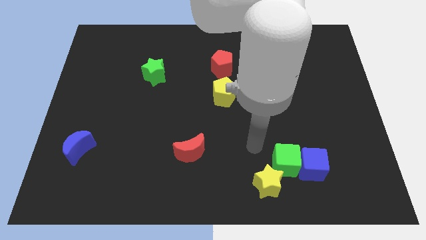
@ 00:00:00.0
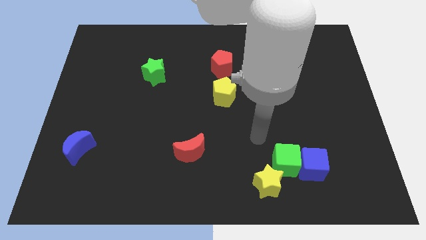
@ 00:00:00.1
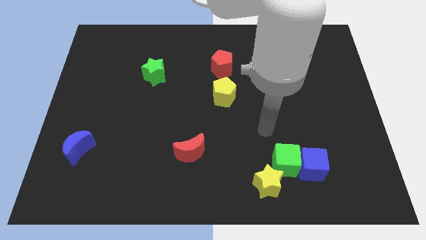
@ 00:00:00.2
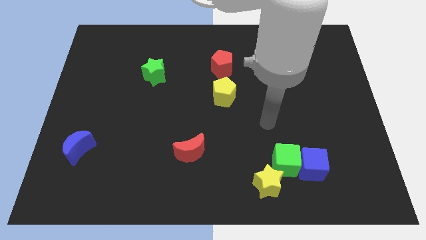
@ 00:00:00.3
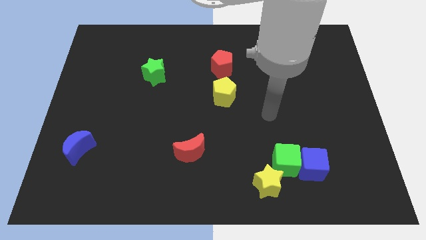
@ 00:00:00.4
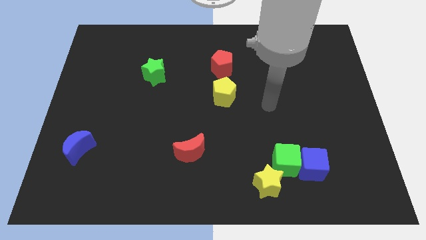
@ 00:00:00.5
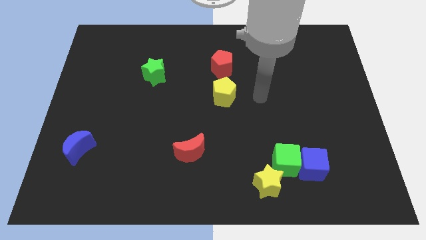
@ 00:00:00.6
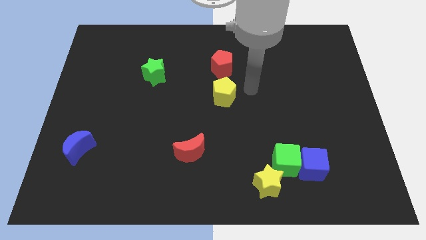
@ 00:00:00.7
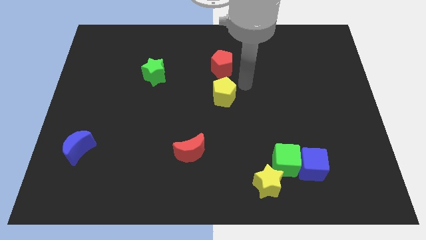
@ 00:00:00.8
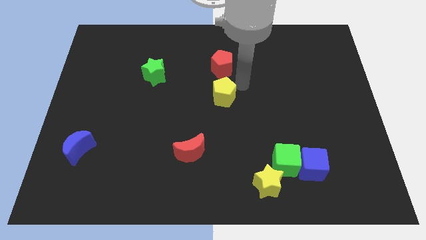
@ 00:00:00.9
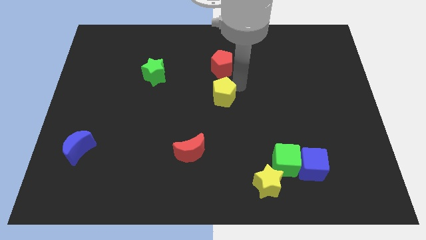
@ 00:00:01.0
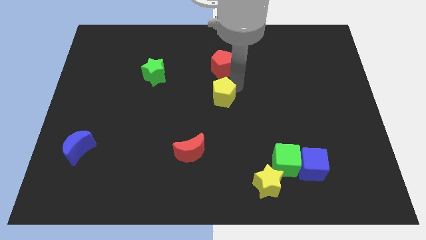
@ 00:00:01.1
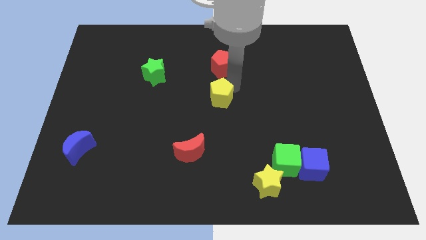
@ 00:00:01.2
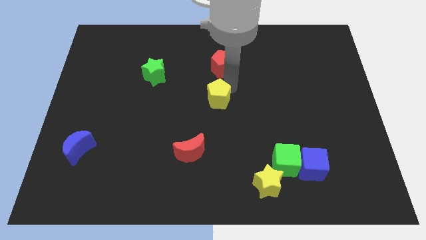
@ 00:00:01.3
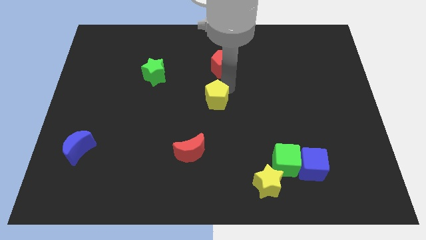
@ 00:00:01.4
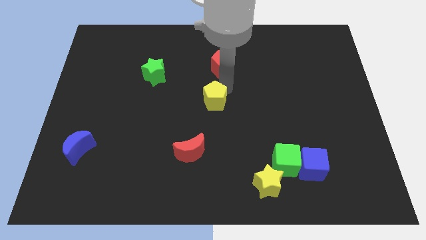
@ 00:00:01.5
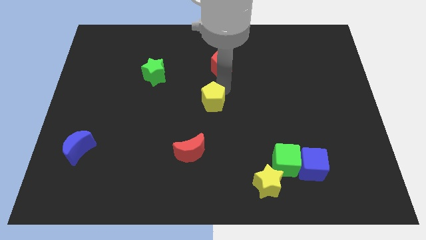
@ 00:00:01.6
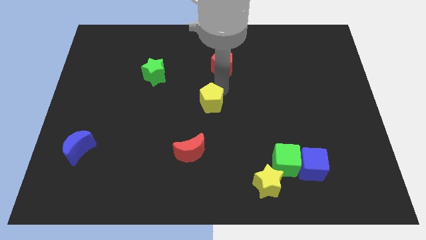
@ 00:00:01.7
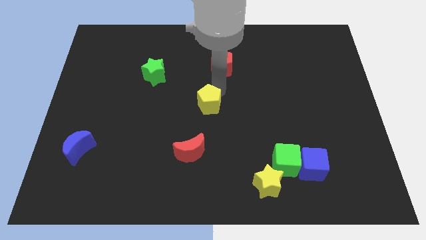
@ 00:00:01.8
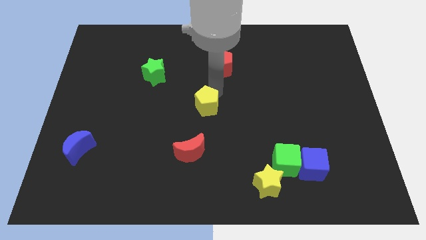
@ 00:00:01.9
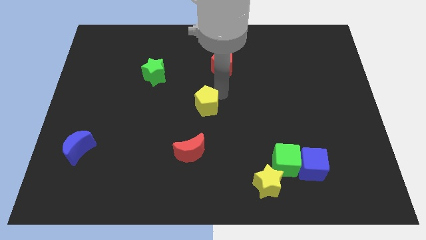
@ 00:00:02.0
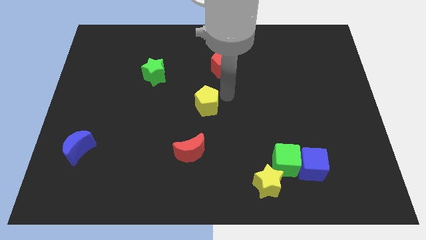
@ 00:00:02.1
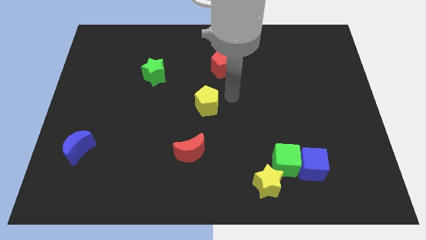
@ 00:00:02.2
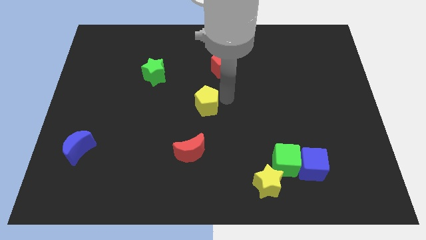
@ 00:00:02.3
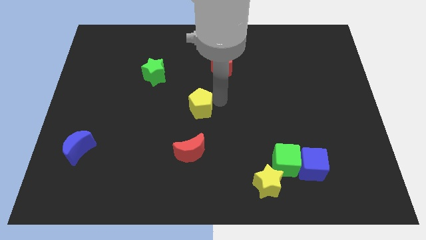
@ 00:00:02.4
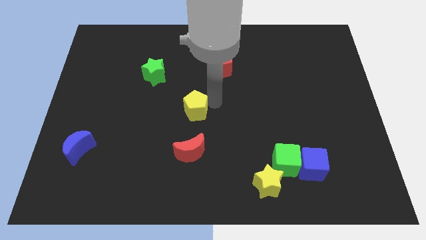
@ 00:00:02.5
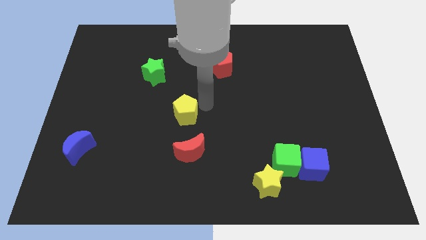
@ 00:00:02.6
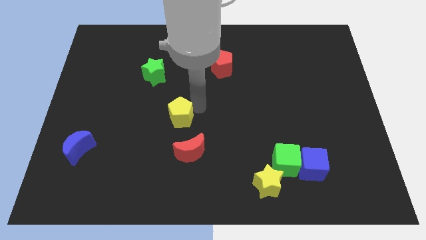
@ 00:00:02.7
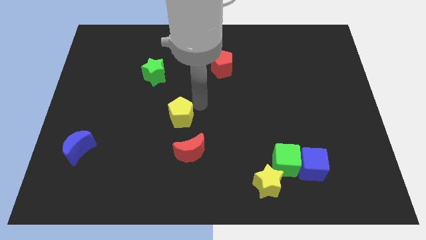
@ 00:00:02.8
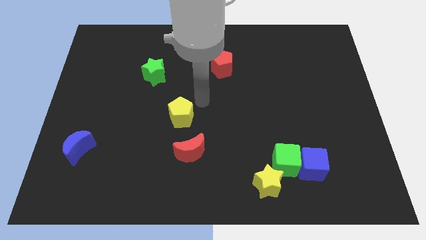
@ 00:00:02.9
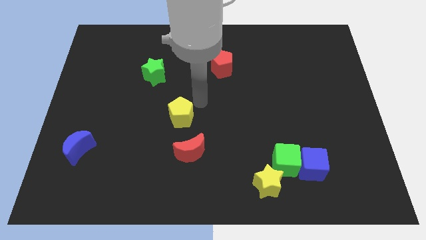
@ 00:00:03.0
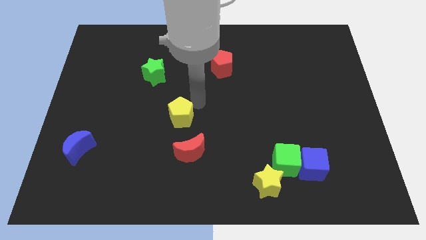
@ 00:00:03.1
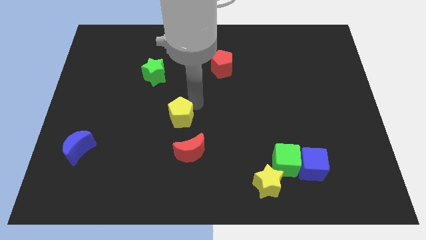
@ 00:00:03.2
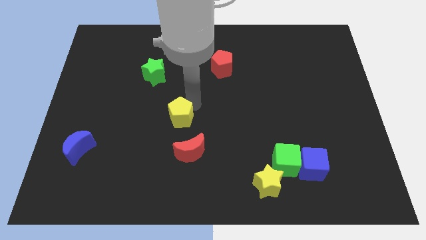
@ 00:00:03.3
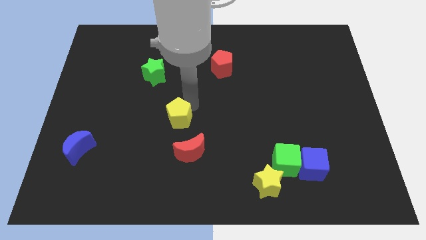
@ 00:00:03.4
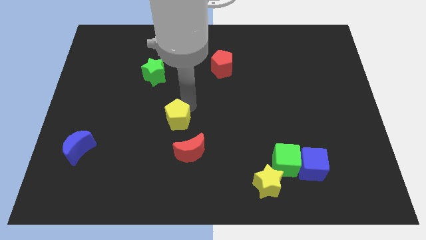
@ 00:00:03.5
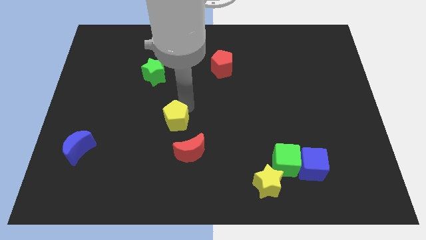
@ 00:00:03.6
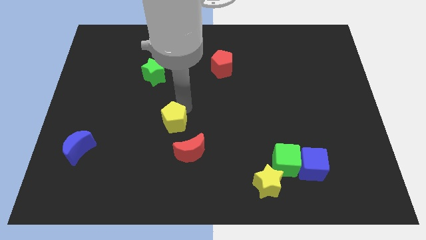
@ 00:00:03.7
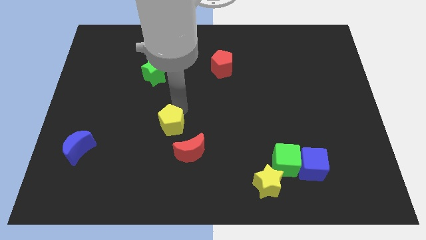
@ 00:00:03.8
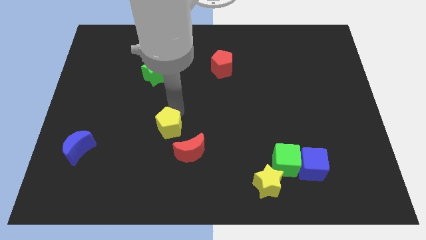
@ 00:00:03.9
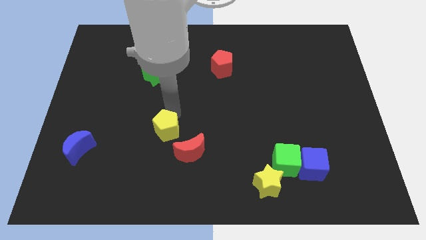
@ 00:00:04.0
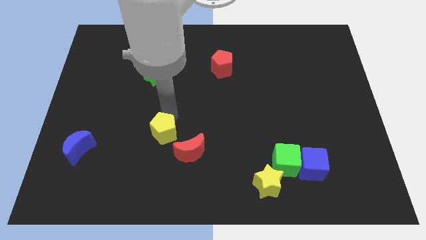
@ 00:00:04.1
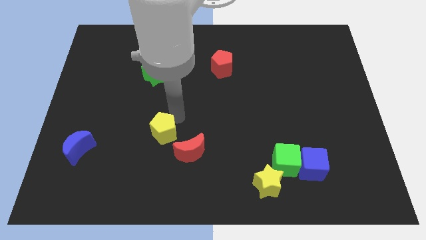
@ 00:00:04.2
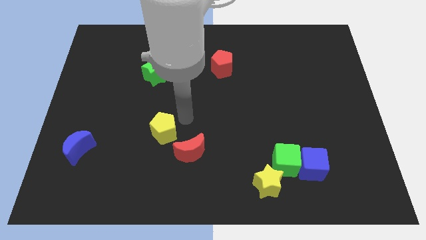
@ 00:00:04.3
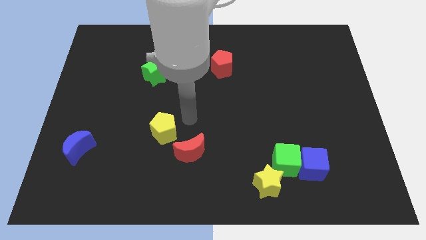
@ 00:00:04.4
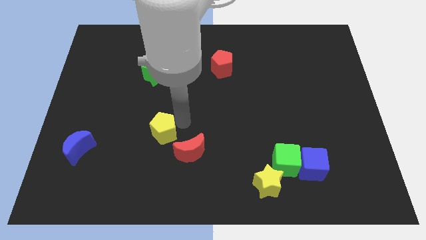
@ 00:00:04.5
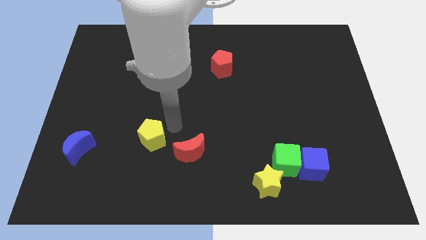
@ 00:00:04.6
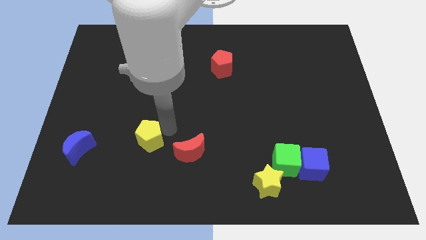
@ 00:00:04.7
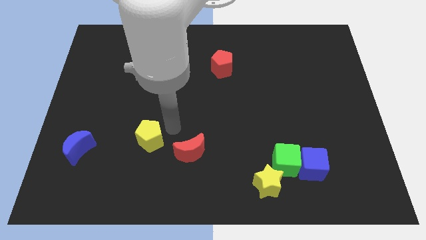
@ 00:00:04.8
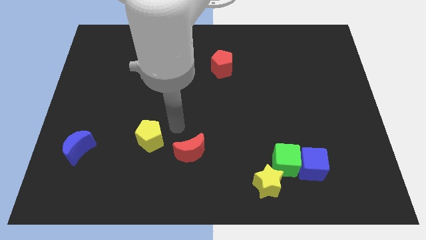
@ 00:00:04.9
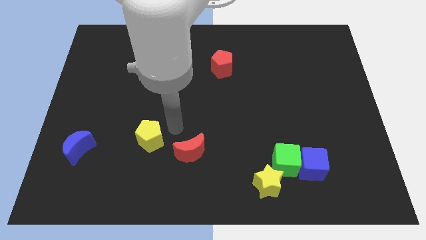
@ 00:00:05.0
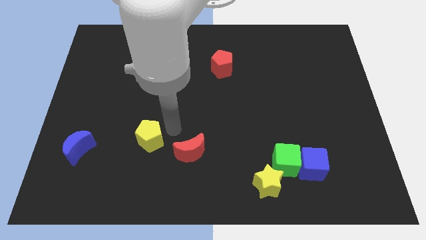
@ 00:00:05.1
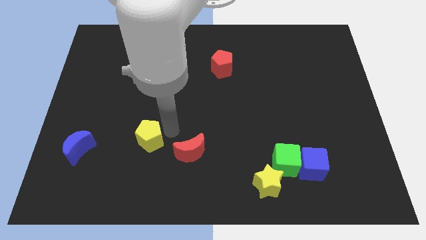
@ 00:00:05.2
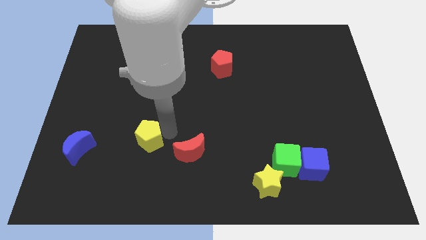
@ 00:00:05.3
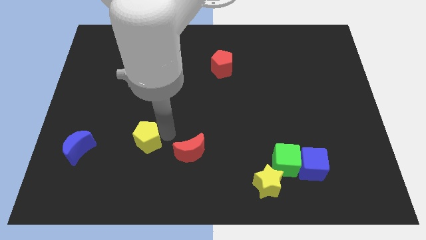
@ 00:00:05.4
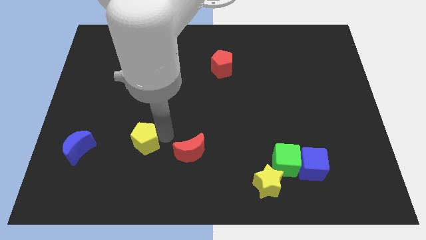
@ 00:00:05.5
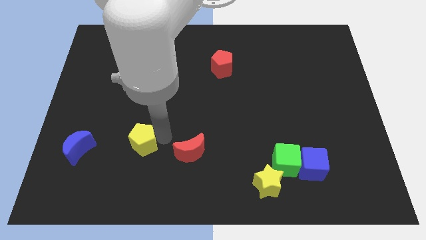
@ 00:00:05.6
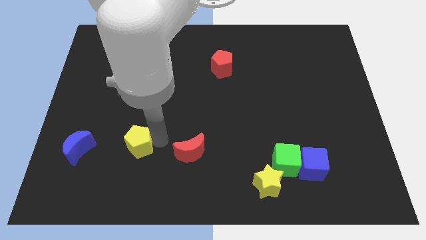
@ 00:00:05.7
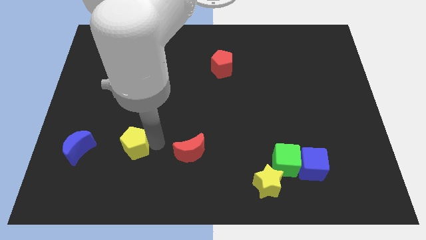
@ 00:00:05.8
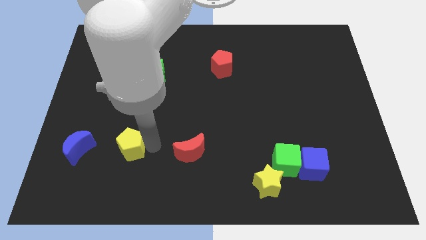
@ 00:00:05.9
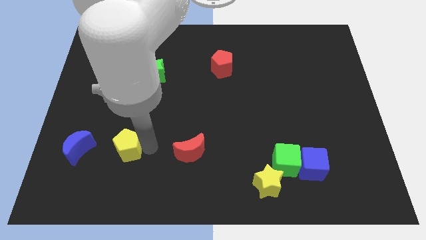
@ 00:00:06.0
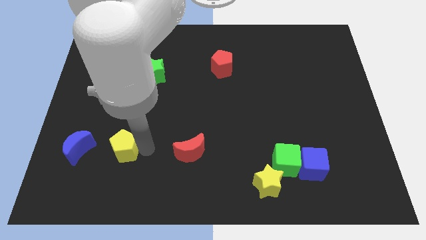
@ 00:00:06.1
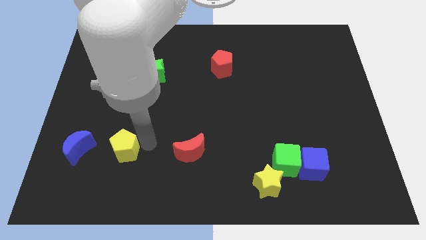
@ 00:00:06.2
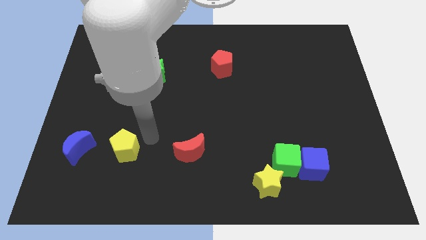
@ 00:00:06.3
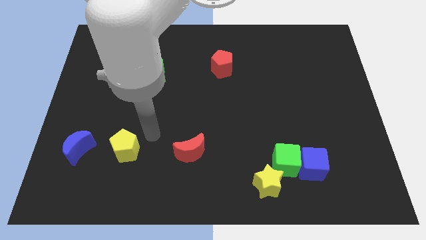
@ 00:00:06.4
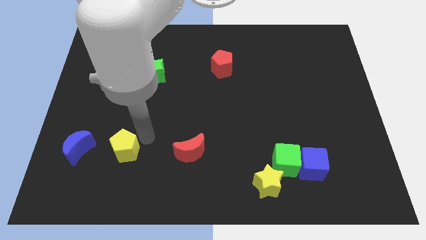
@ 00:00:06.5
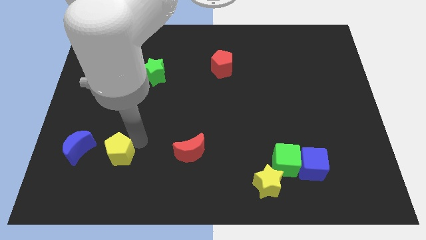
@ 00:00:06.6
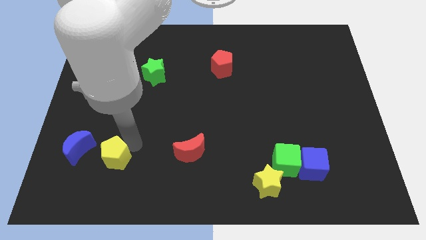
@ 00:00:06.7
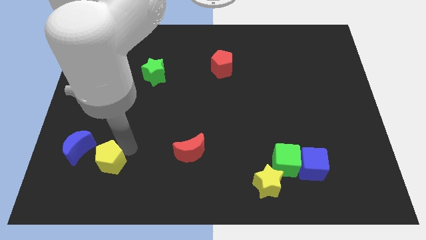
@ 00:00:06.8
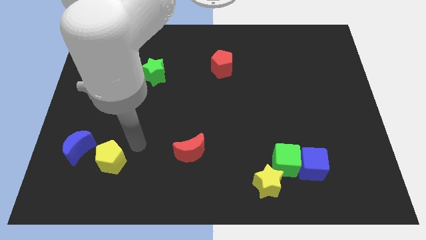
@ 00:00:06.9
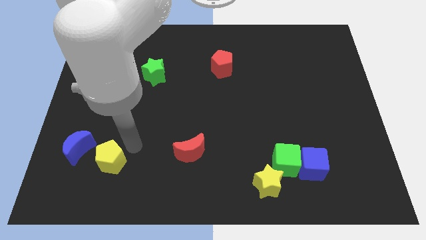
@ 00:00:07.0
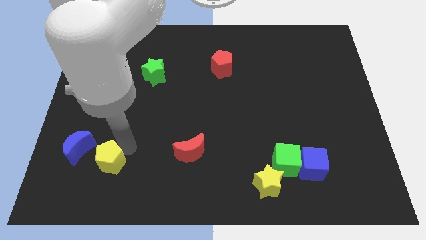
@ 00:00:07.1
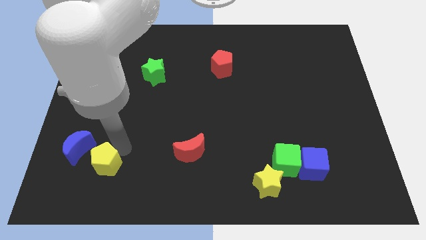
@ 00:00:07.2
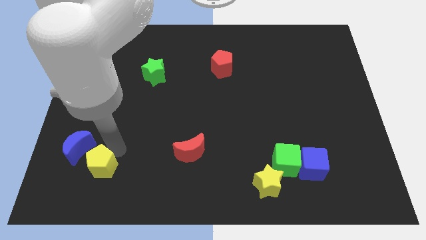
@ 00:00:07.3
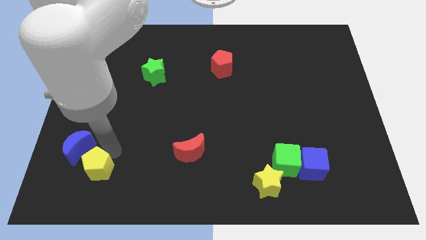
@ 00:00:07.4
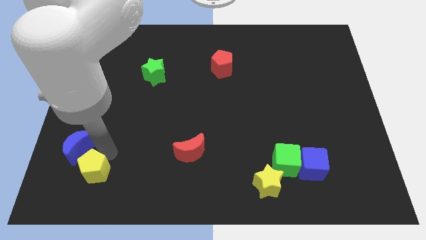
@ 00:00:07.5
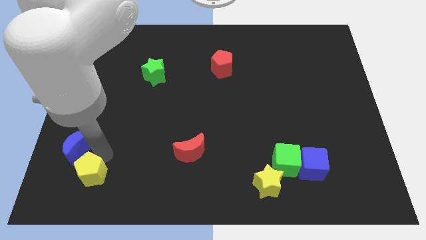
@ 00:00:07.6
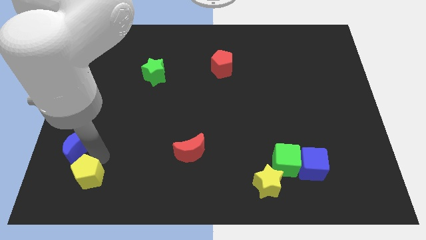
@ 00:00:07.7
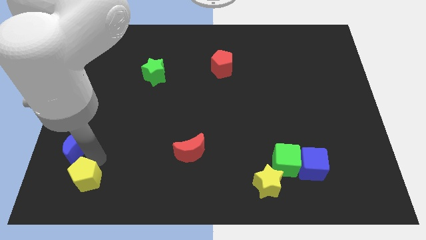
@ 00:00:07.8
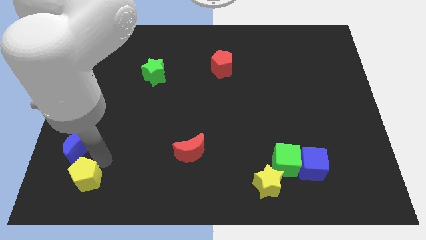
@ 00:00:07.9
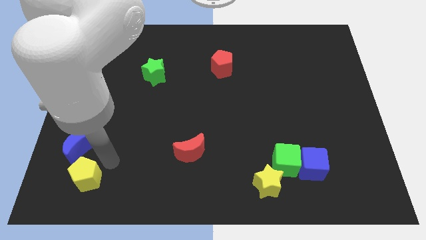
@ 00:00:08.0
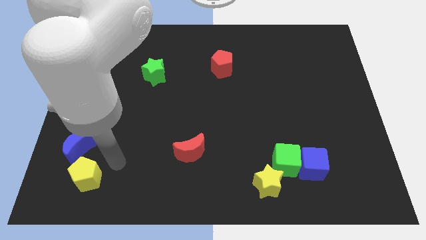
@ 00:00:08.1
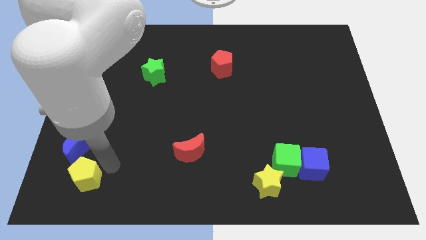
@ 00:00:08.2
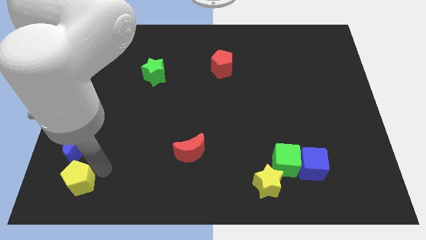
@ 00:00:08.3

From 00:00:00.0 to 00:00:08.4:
slide the yellow pentagon to the bottom left
